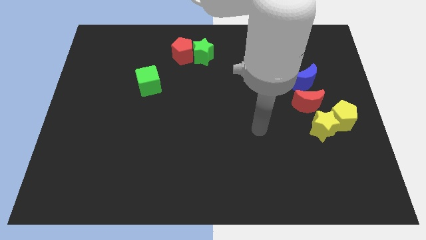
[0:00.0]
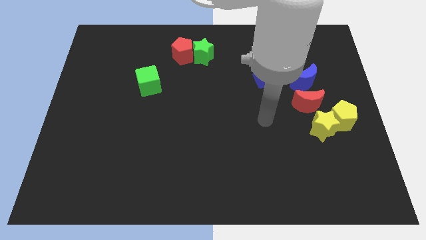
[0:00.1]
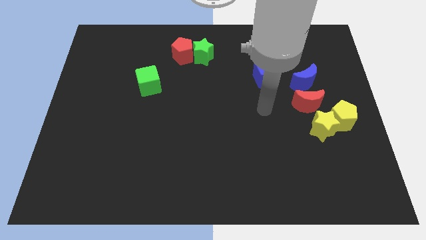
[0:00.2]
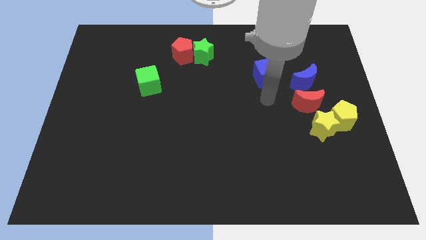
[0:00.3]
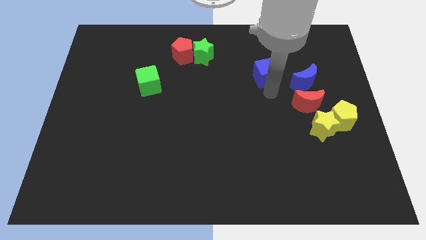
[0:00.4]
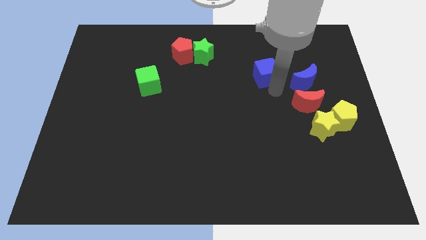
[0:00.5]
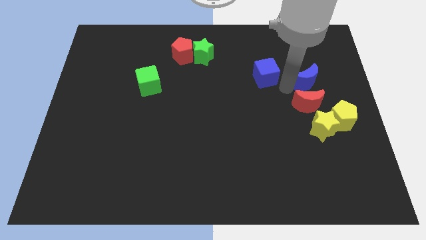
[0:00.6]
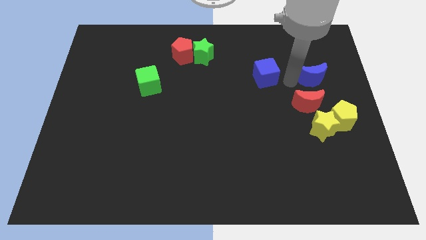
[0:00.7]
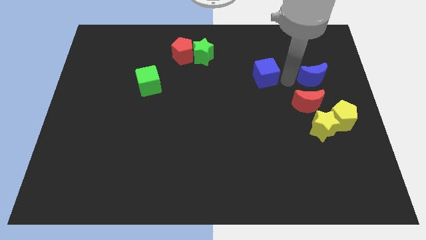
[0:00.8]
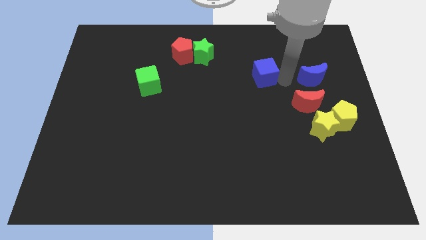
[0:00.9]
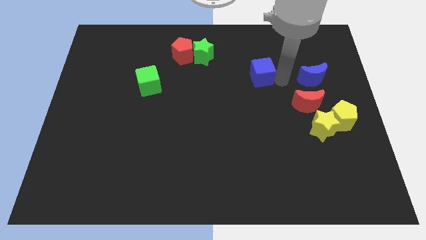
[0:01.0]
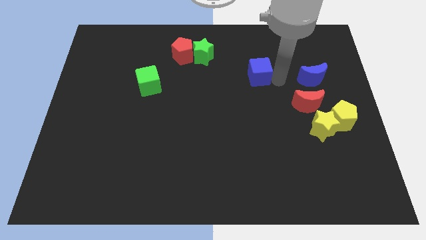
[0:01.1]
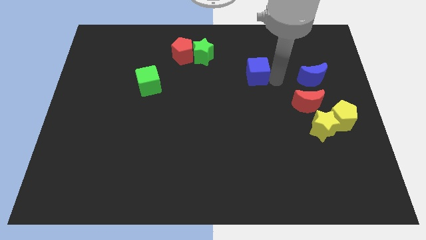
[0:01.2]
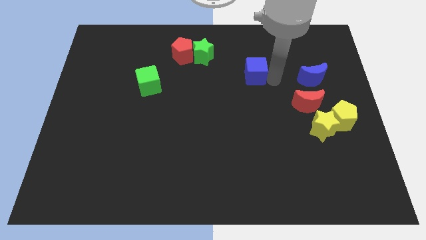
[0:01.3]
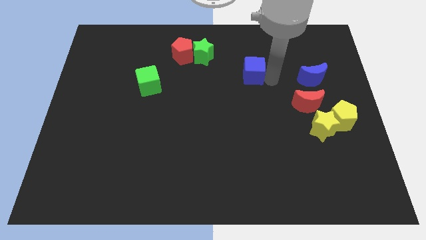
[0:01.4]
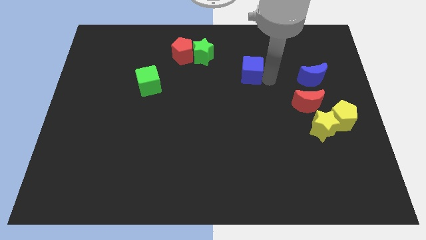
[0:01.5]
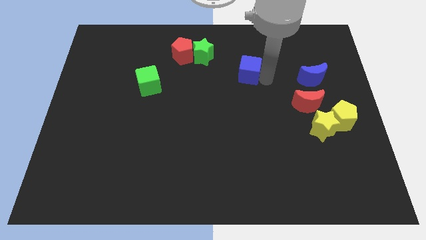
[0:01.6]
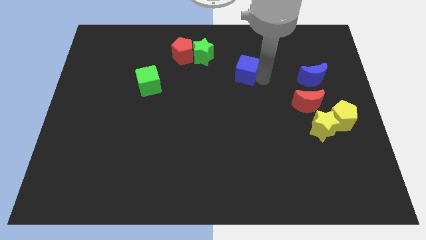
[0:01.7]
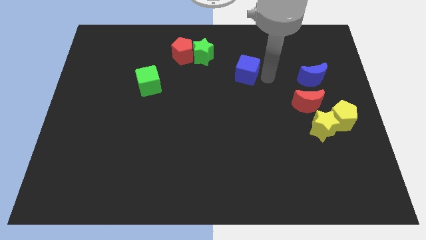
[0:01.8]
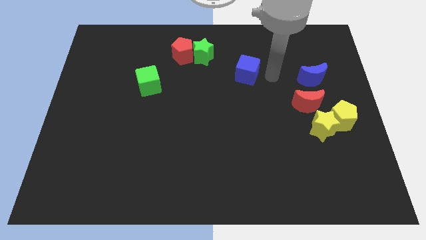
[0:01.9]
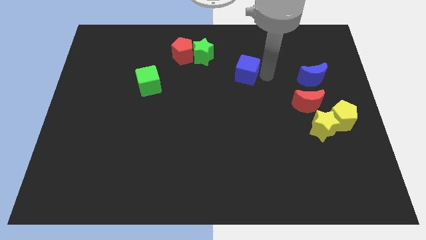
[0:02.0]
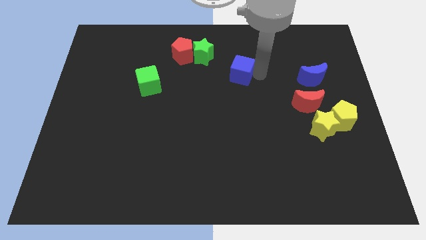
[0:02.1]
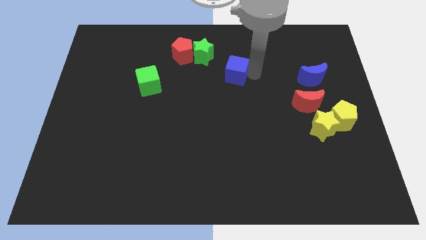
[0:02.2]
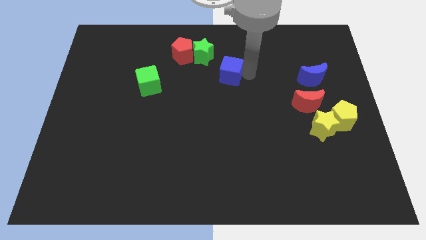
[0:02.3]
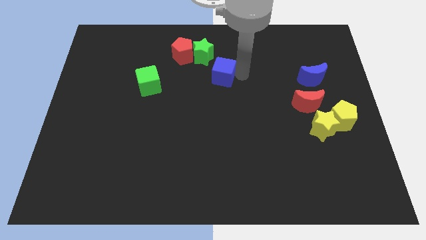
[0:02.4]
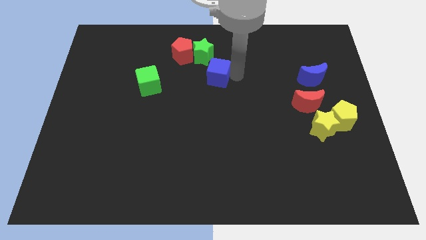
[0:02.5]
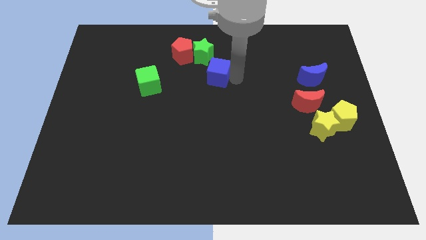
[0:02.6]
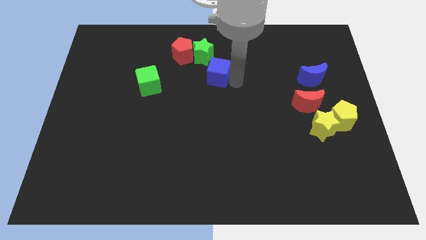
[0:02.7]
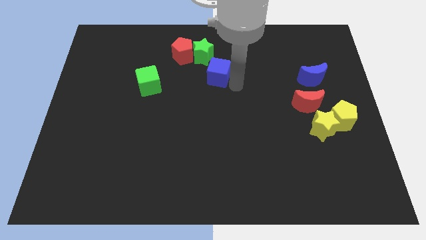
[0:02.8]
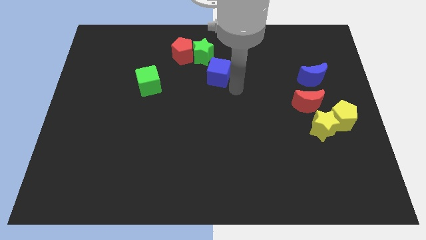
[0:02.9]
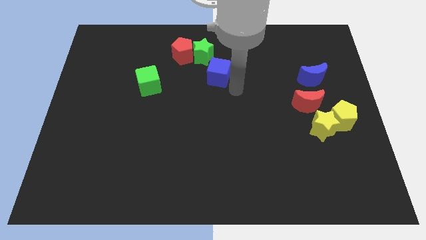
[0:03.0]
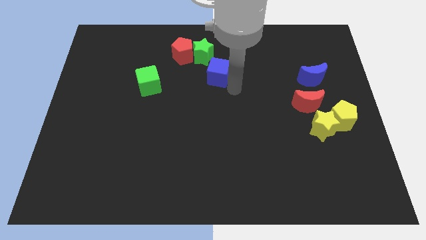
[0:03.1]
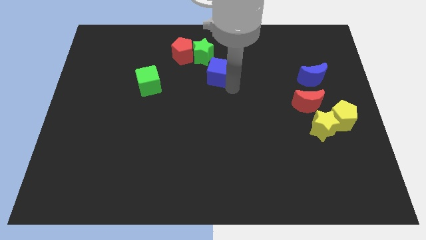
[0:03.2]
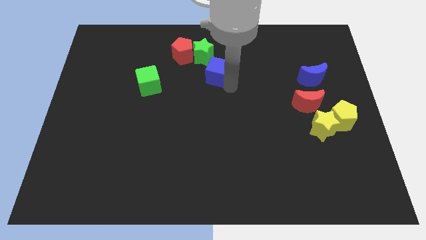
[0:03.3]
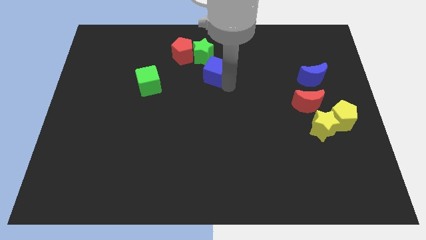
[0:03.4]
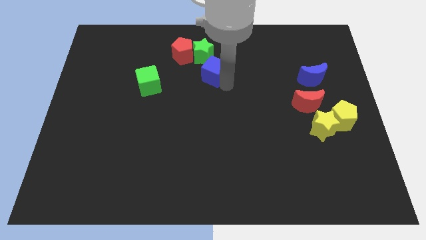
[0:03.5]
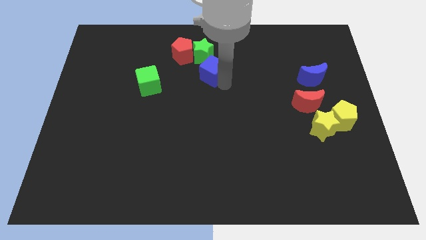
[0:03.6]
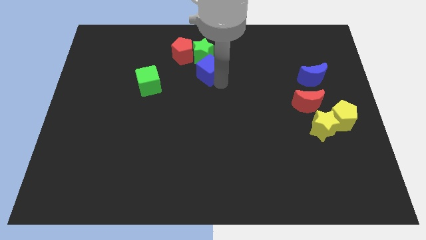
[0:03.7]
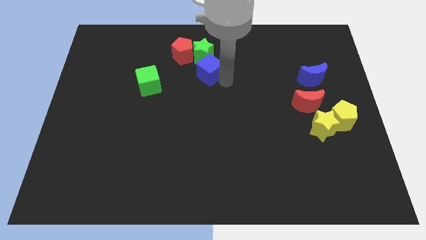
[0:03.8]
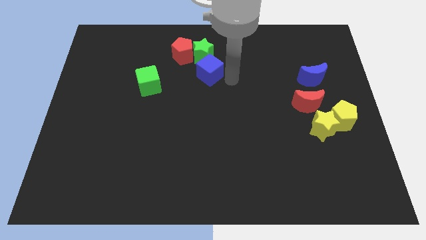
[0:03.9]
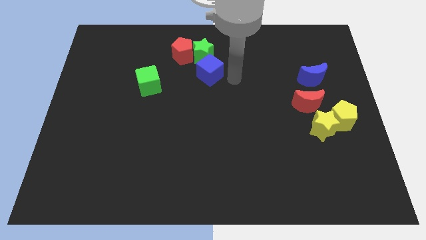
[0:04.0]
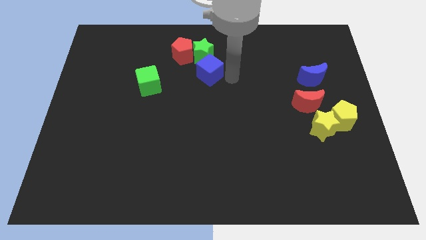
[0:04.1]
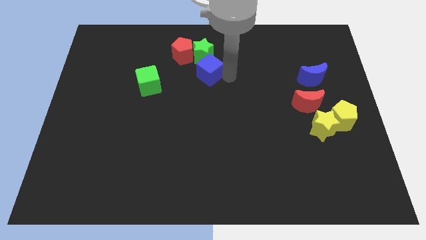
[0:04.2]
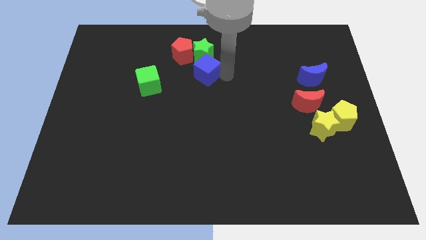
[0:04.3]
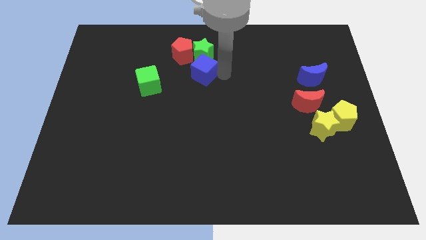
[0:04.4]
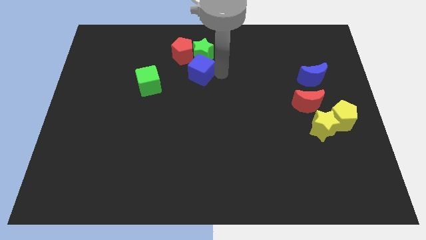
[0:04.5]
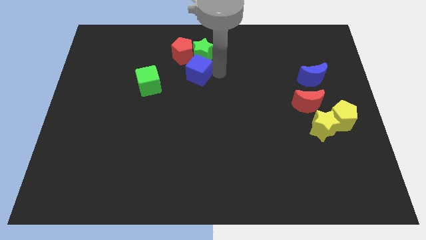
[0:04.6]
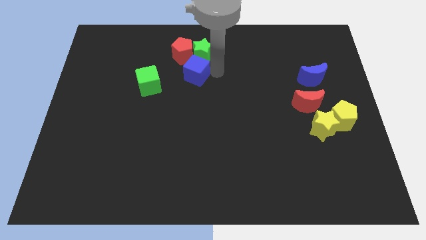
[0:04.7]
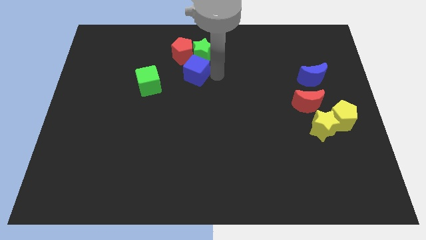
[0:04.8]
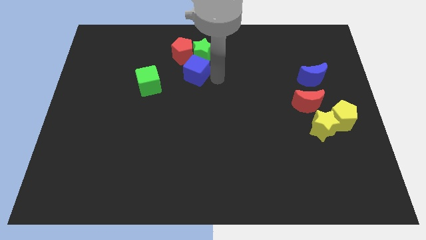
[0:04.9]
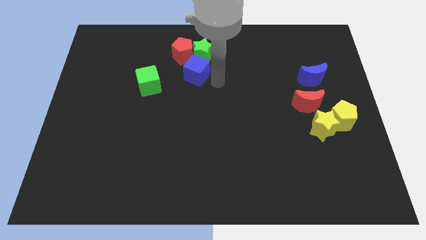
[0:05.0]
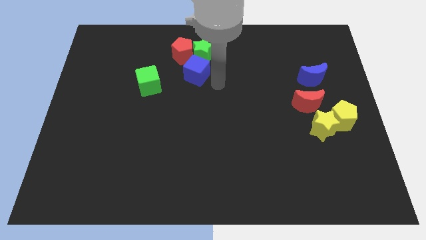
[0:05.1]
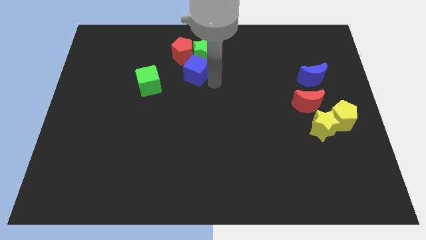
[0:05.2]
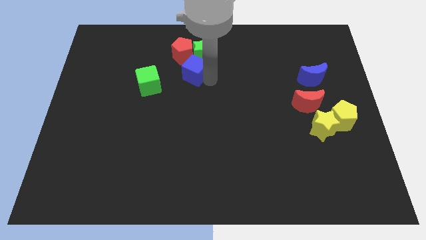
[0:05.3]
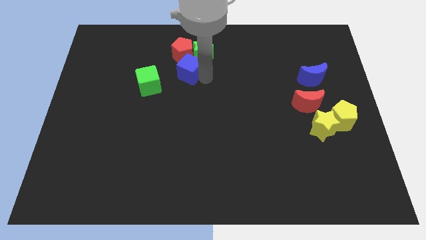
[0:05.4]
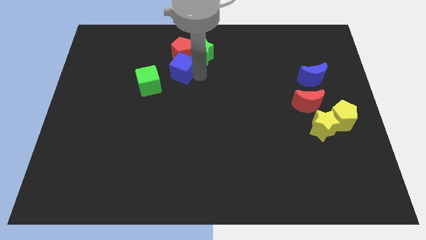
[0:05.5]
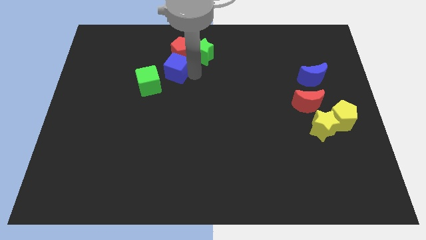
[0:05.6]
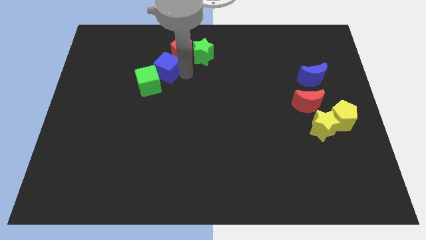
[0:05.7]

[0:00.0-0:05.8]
move the blue cube to the top side of the green cube

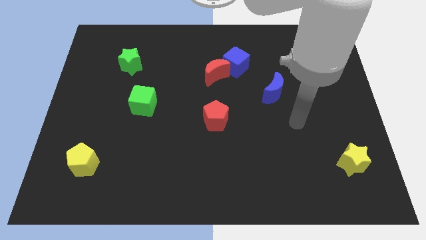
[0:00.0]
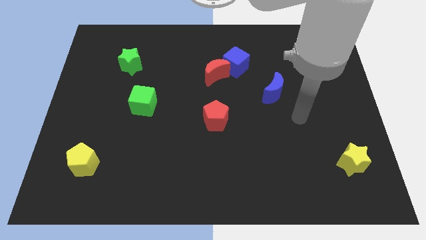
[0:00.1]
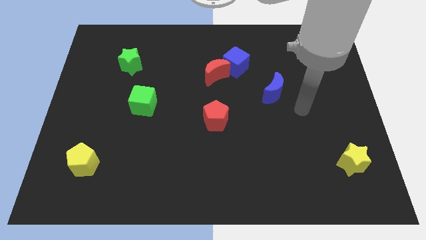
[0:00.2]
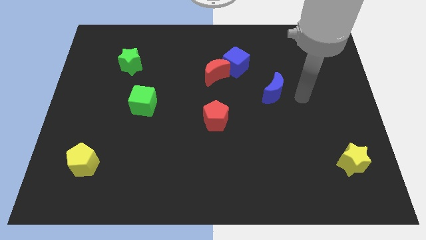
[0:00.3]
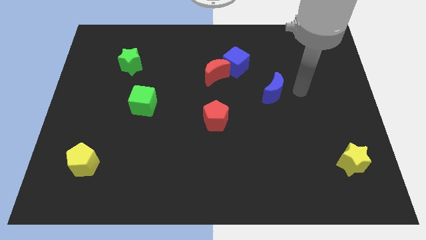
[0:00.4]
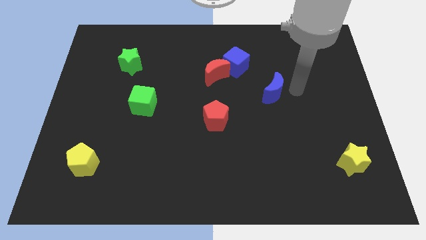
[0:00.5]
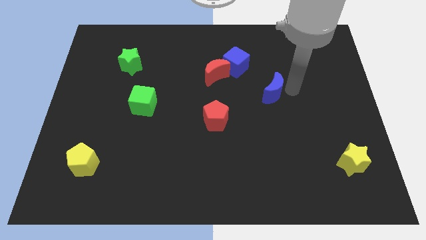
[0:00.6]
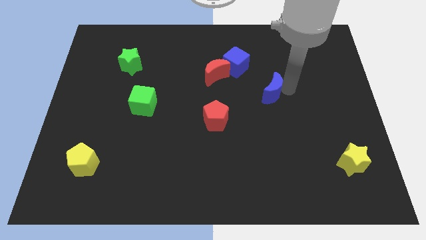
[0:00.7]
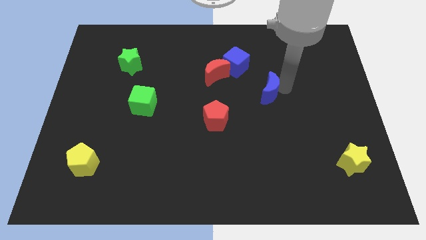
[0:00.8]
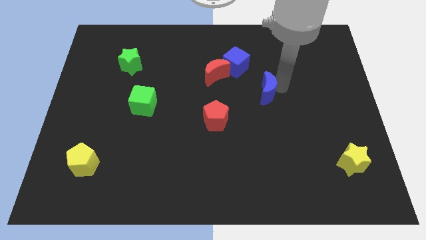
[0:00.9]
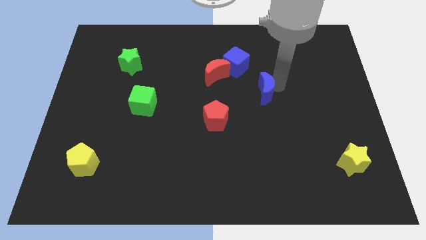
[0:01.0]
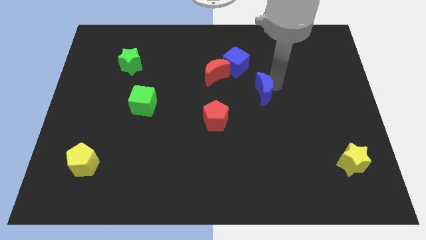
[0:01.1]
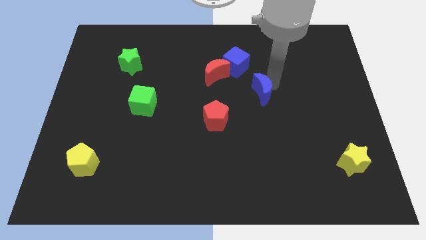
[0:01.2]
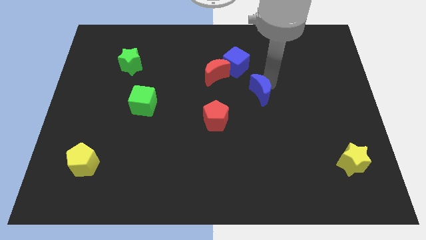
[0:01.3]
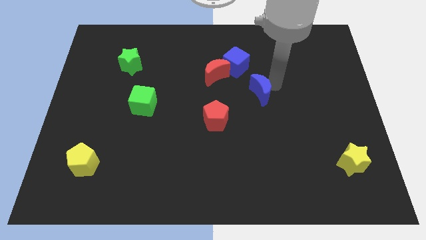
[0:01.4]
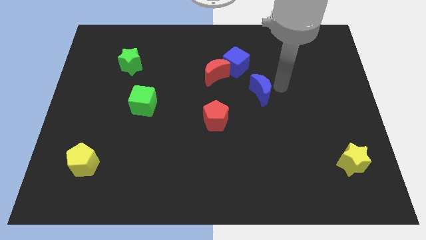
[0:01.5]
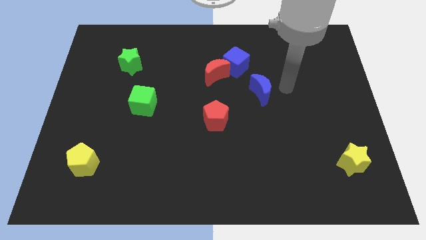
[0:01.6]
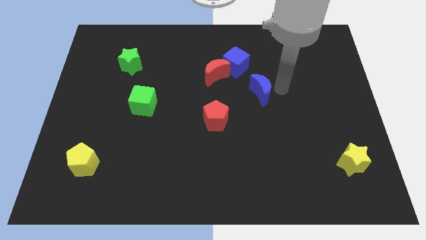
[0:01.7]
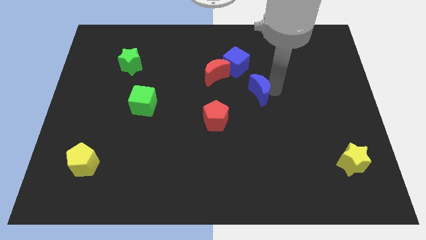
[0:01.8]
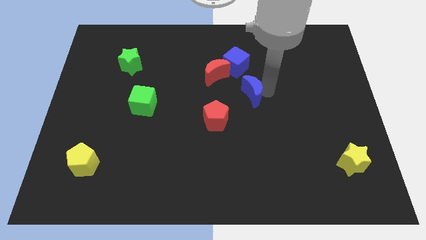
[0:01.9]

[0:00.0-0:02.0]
move the blue moon to the bottom of the blue cube
